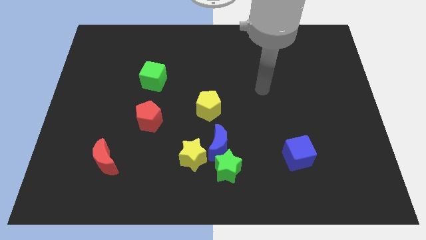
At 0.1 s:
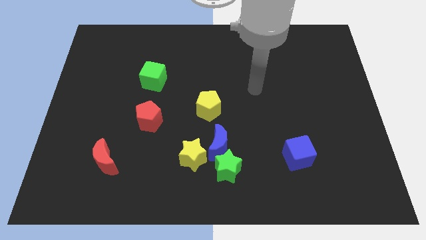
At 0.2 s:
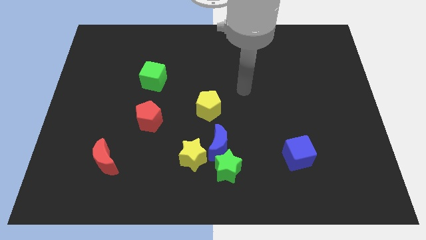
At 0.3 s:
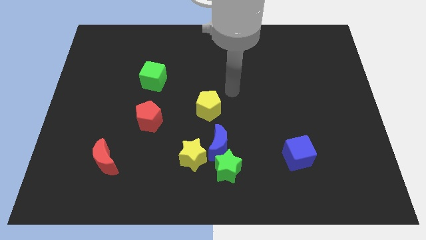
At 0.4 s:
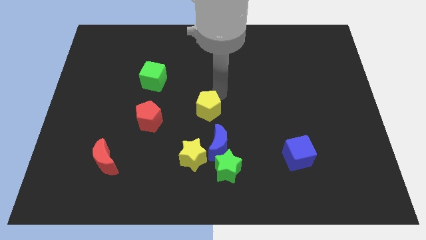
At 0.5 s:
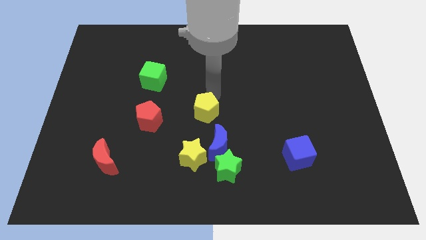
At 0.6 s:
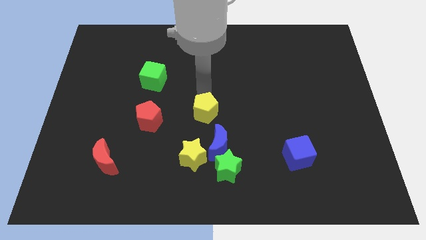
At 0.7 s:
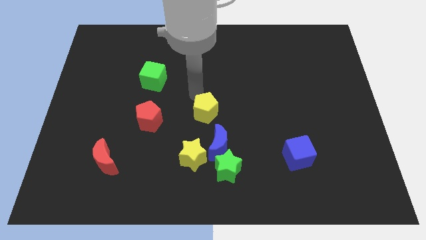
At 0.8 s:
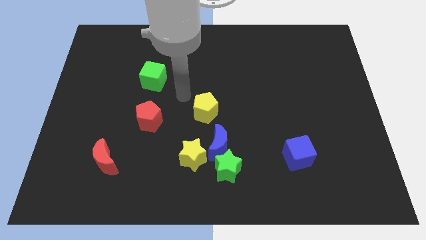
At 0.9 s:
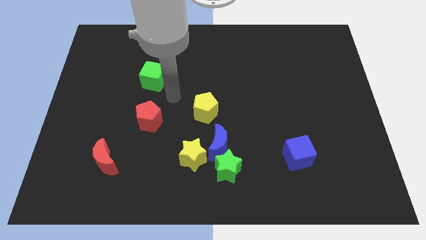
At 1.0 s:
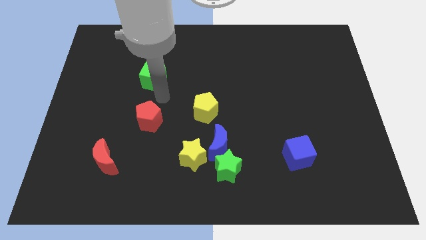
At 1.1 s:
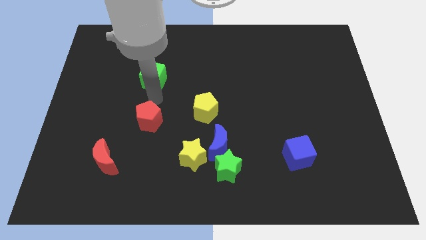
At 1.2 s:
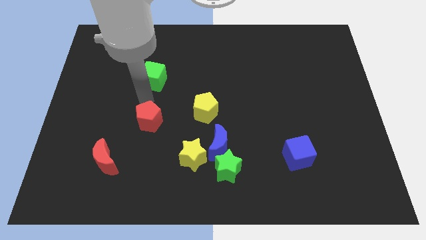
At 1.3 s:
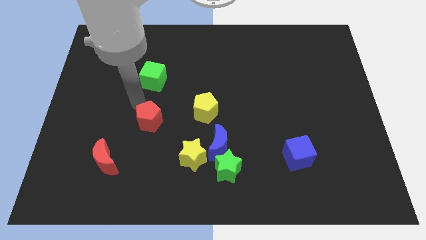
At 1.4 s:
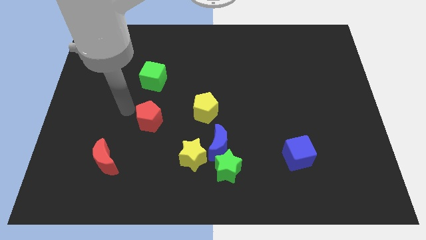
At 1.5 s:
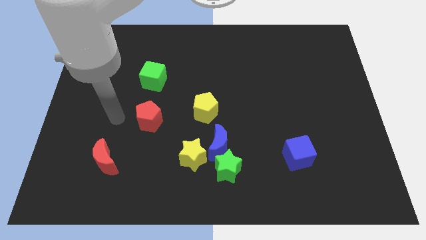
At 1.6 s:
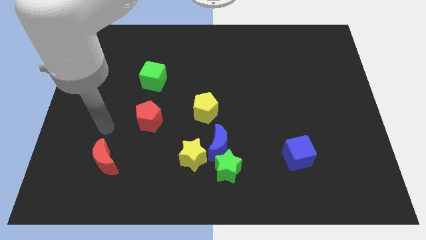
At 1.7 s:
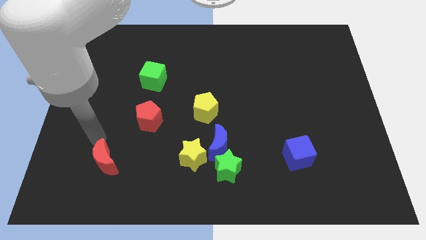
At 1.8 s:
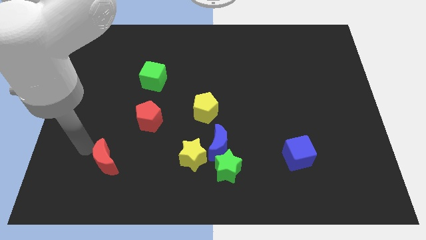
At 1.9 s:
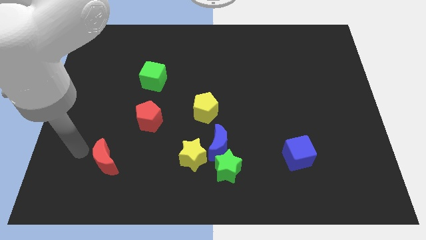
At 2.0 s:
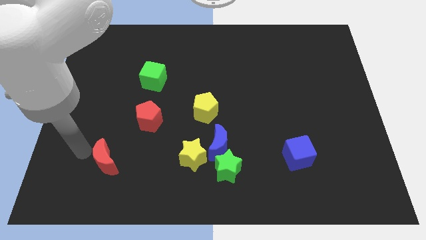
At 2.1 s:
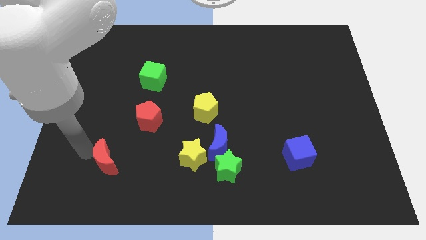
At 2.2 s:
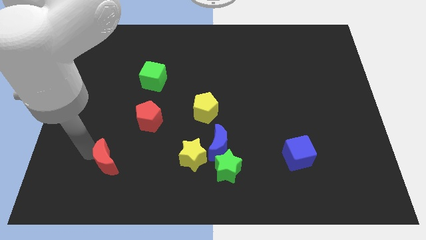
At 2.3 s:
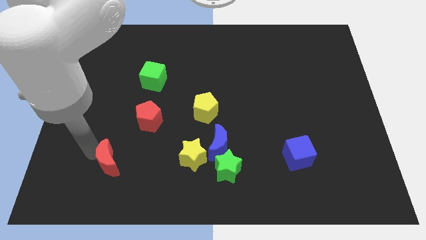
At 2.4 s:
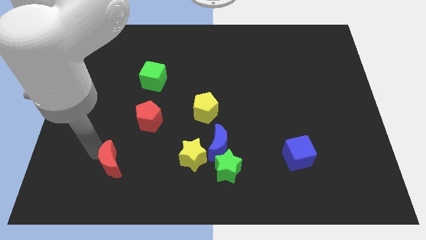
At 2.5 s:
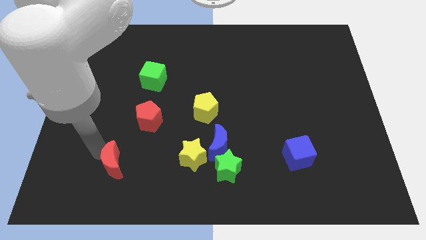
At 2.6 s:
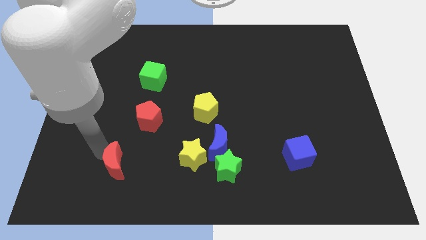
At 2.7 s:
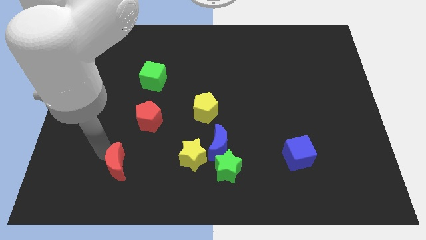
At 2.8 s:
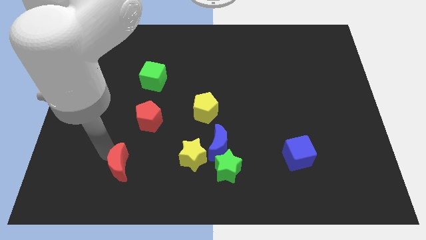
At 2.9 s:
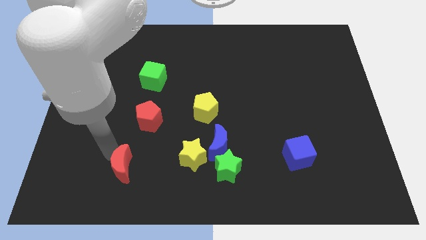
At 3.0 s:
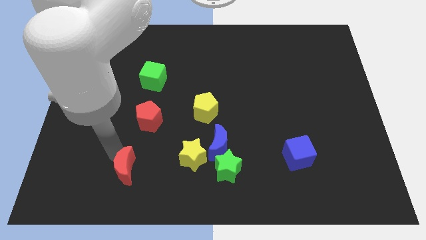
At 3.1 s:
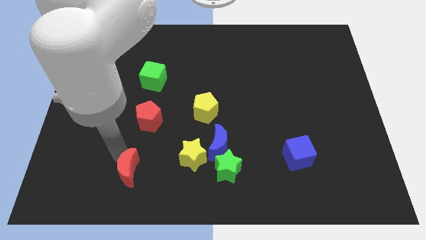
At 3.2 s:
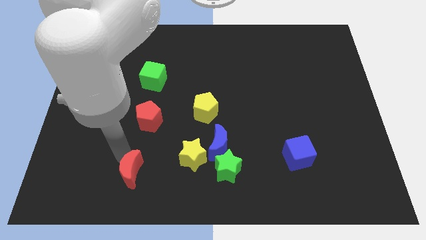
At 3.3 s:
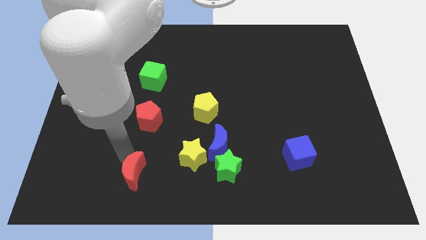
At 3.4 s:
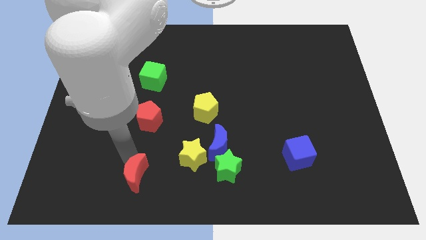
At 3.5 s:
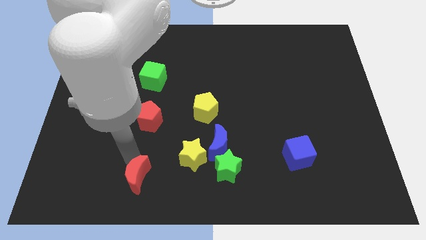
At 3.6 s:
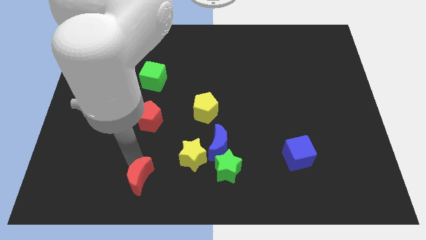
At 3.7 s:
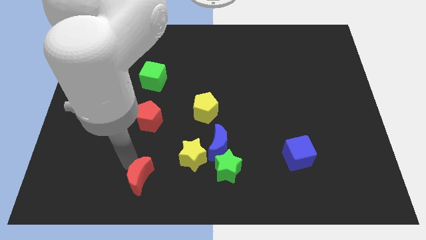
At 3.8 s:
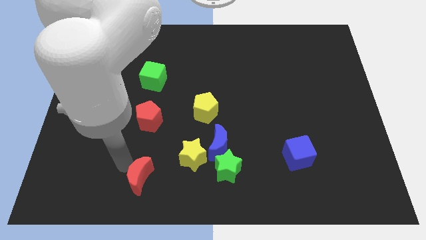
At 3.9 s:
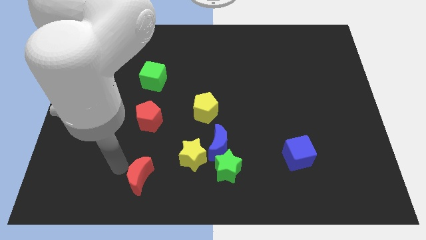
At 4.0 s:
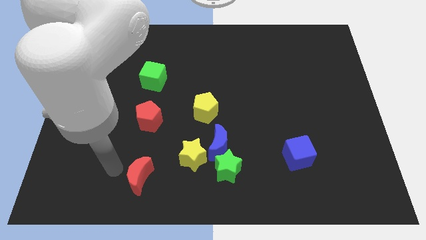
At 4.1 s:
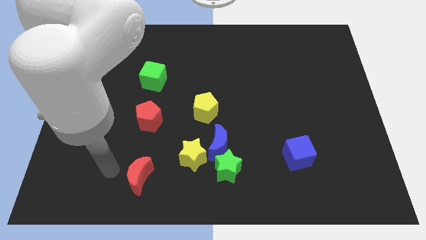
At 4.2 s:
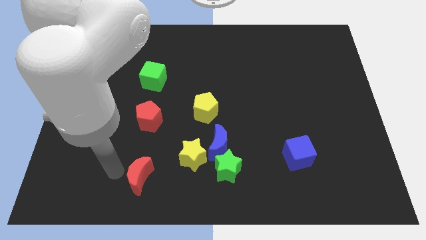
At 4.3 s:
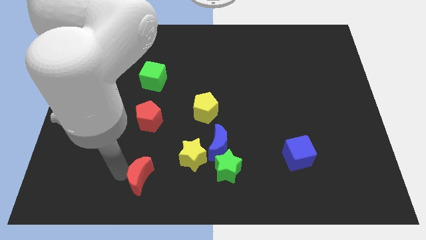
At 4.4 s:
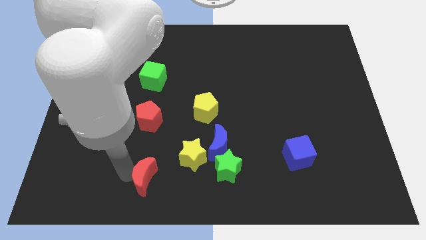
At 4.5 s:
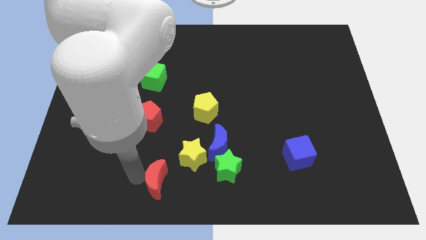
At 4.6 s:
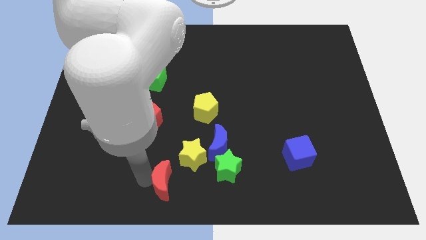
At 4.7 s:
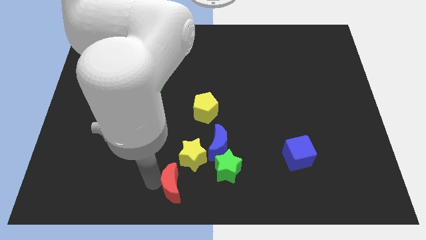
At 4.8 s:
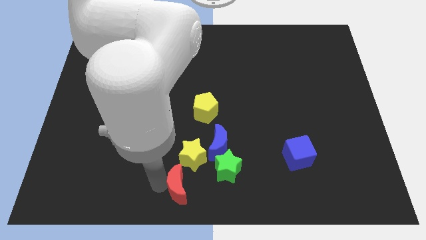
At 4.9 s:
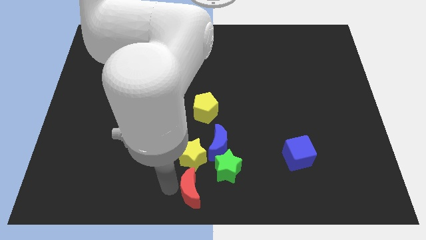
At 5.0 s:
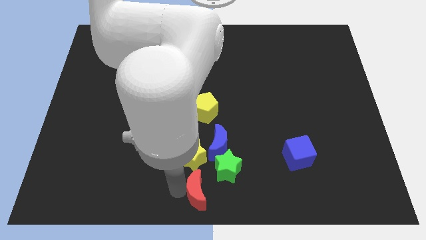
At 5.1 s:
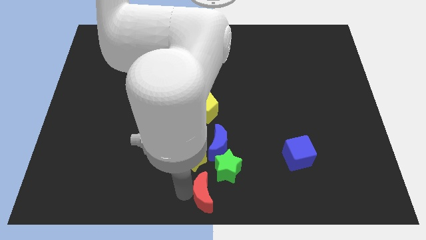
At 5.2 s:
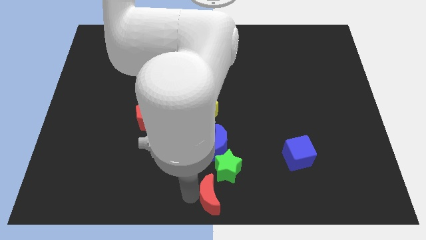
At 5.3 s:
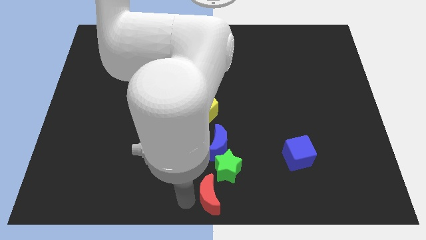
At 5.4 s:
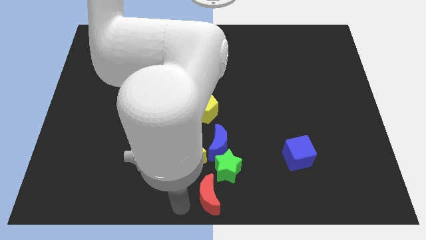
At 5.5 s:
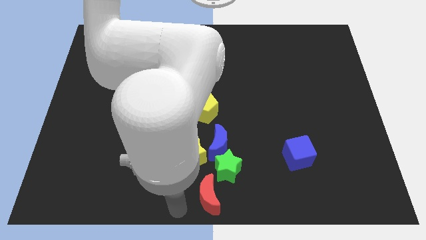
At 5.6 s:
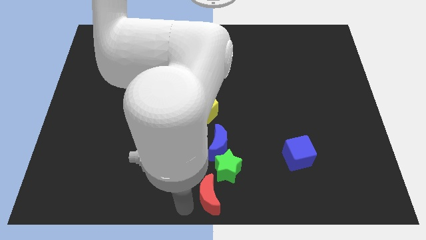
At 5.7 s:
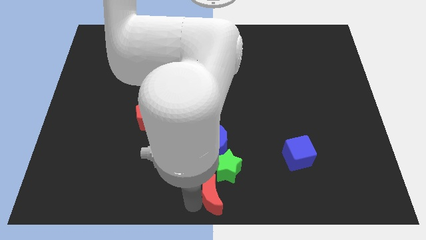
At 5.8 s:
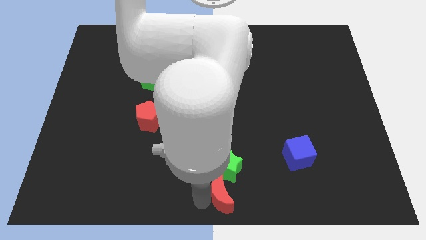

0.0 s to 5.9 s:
slide the red moon to the right

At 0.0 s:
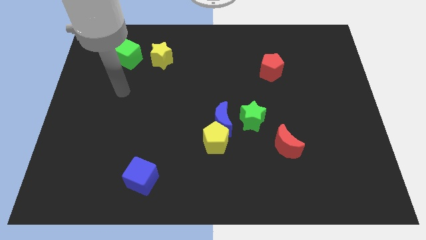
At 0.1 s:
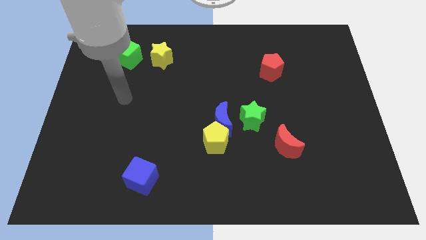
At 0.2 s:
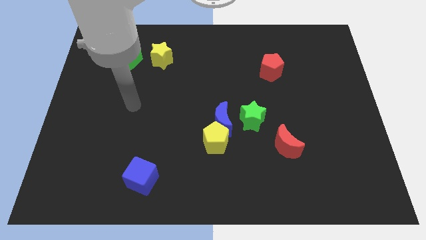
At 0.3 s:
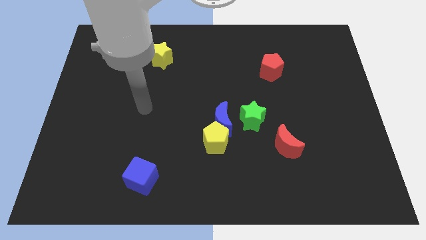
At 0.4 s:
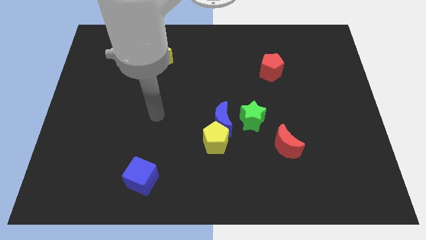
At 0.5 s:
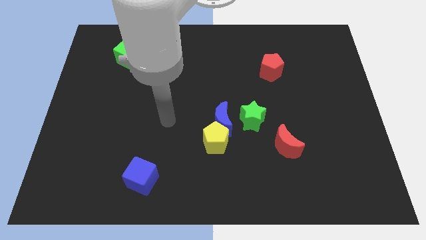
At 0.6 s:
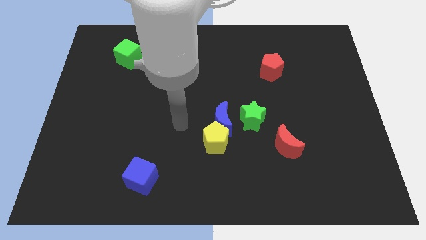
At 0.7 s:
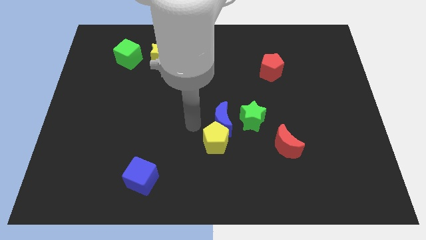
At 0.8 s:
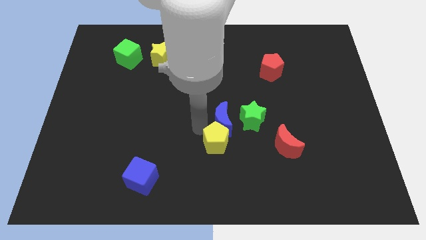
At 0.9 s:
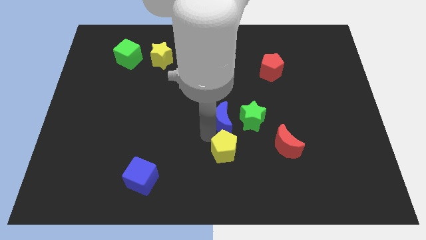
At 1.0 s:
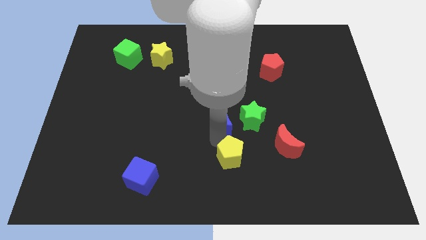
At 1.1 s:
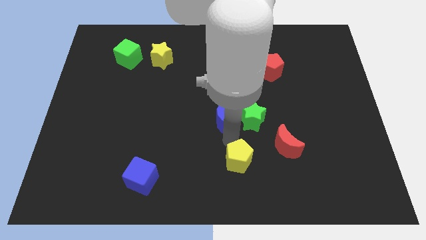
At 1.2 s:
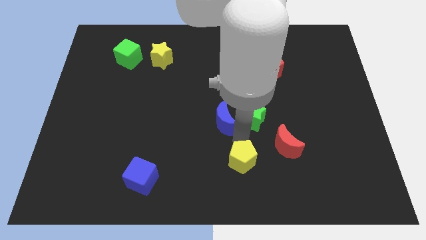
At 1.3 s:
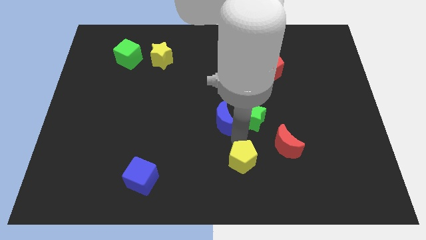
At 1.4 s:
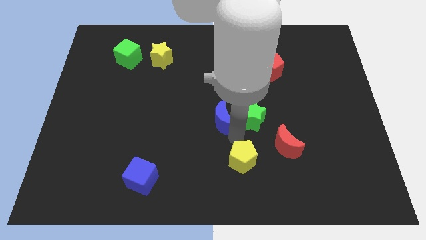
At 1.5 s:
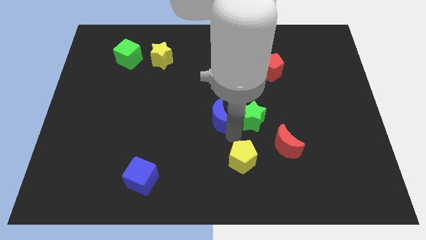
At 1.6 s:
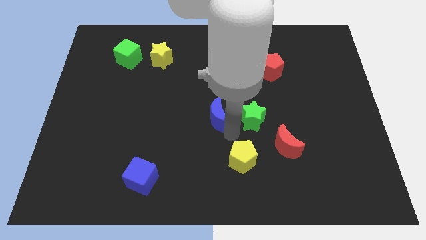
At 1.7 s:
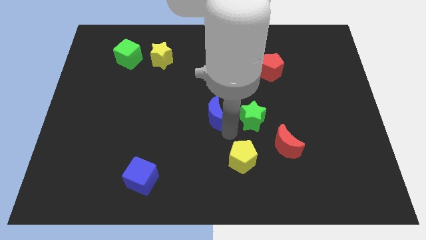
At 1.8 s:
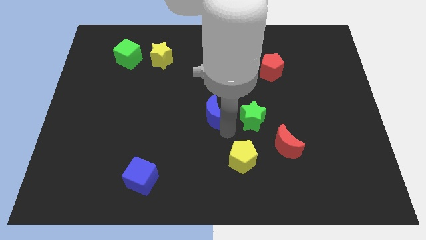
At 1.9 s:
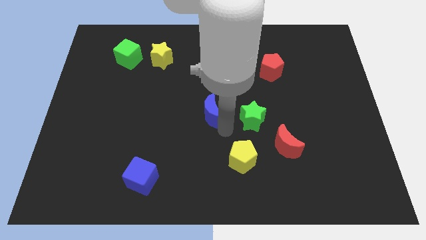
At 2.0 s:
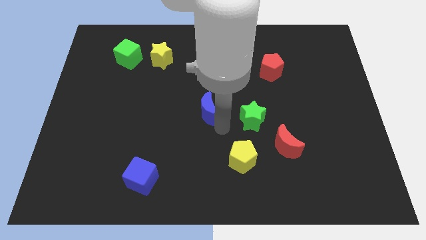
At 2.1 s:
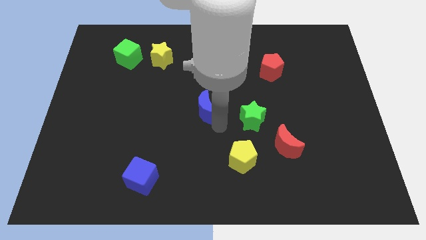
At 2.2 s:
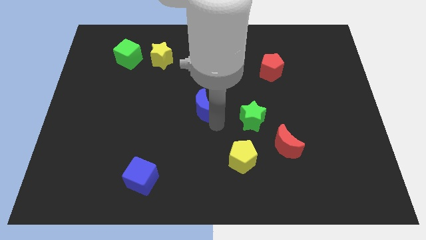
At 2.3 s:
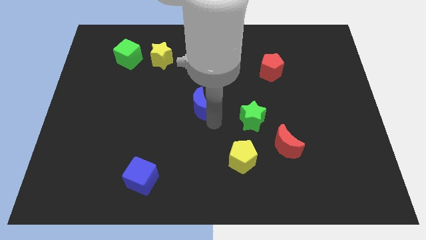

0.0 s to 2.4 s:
move the blue moon diagonally upwards and left slightly

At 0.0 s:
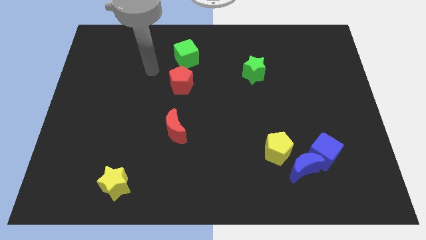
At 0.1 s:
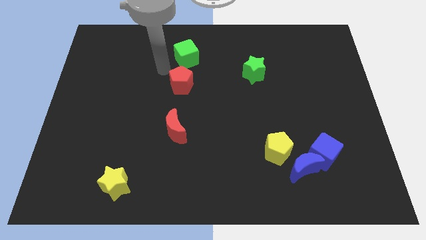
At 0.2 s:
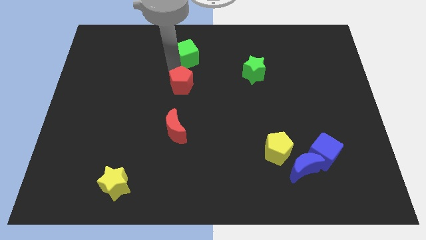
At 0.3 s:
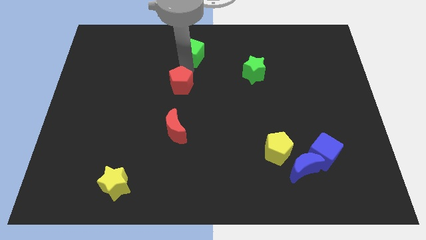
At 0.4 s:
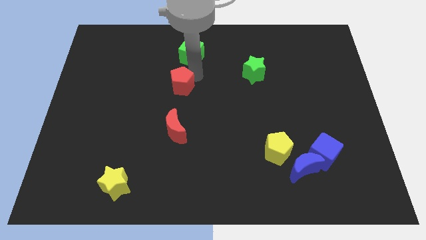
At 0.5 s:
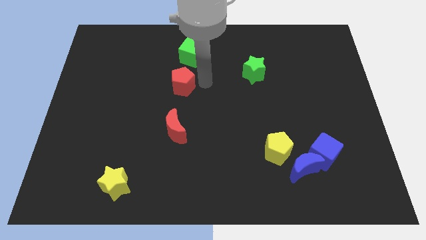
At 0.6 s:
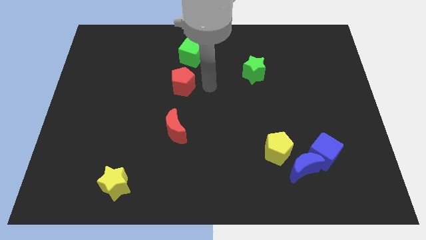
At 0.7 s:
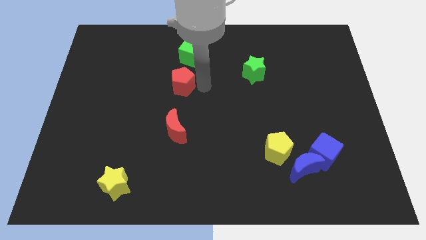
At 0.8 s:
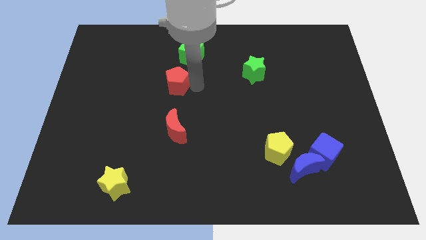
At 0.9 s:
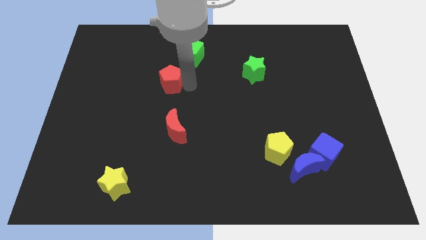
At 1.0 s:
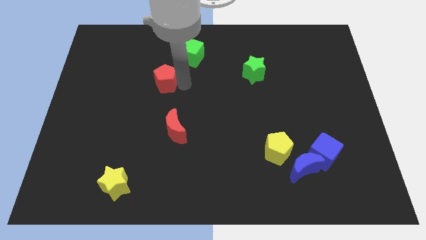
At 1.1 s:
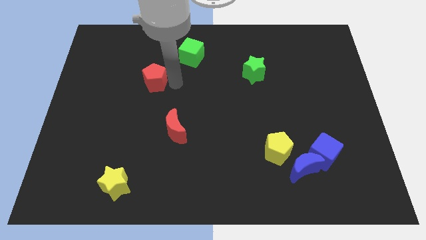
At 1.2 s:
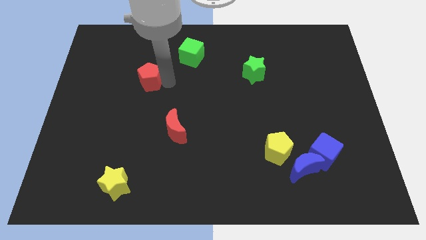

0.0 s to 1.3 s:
slightly move the red pentagon left
